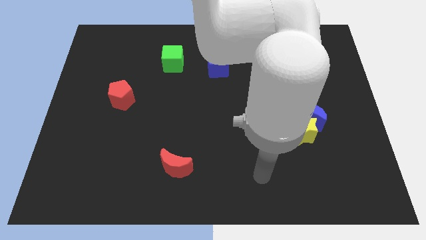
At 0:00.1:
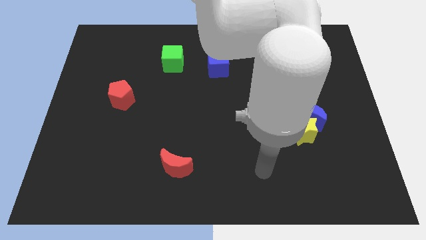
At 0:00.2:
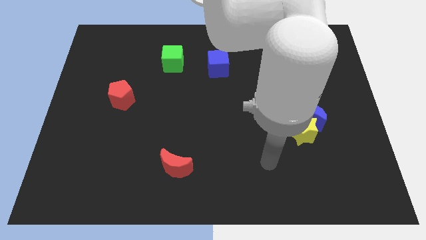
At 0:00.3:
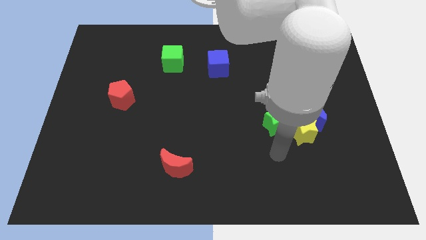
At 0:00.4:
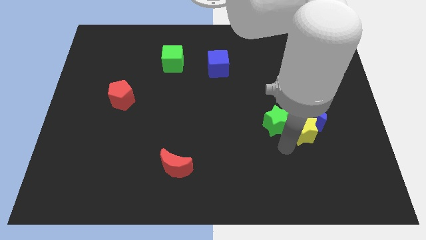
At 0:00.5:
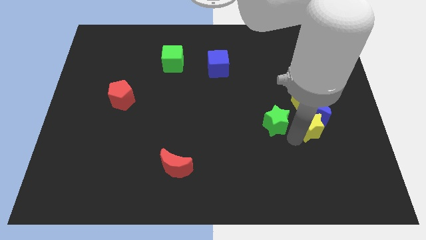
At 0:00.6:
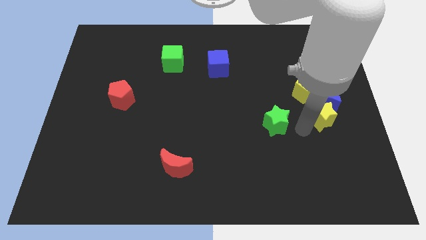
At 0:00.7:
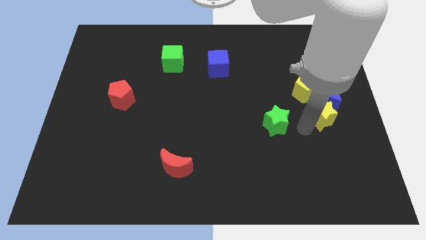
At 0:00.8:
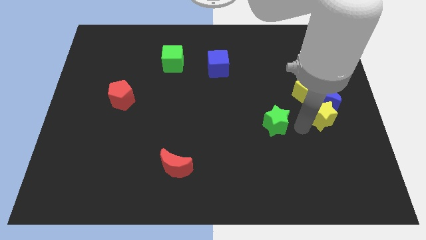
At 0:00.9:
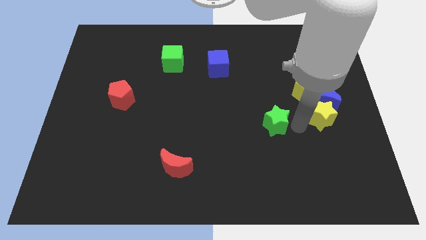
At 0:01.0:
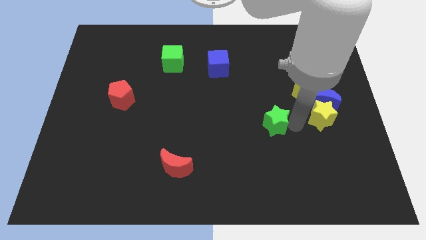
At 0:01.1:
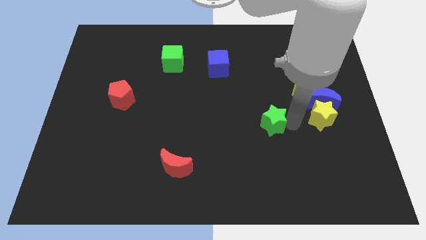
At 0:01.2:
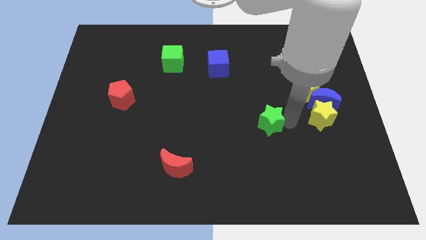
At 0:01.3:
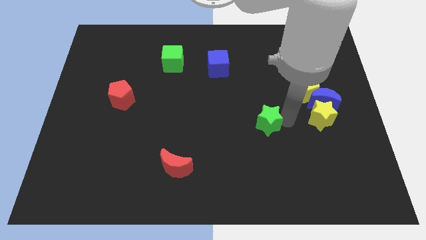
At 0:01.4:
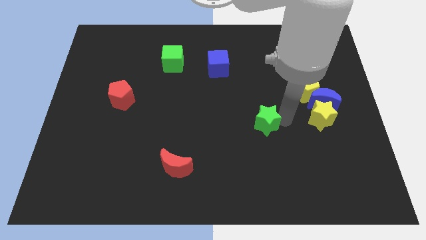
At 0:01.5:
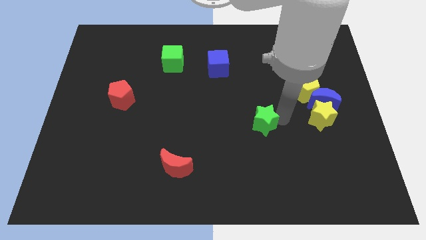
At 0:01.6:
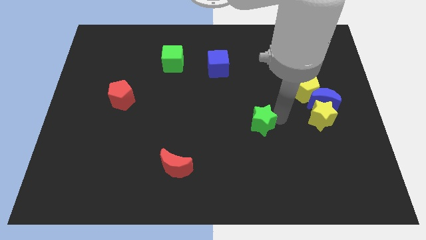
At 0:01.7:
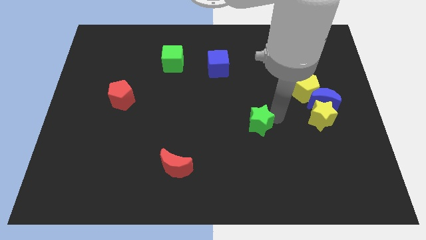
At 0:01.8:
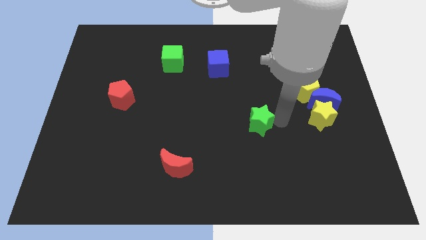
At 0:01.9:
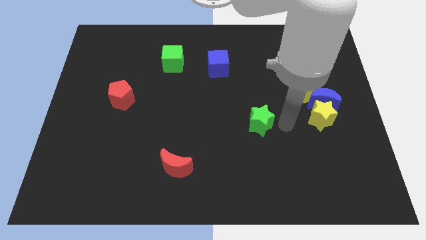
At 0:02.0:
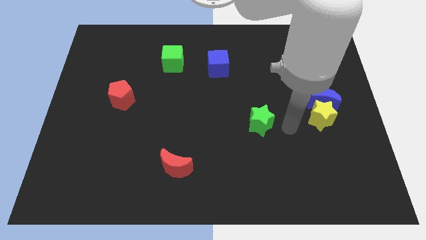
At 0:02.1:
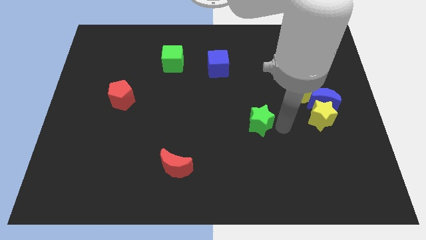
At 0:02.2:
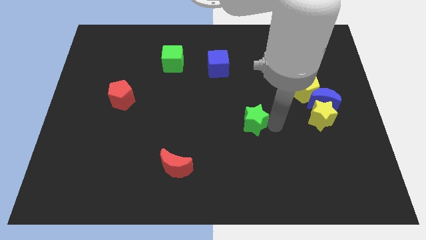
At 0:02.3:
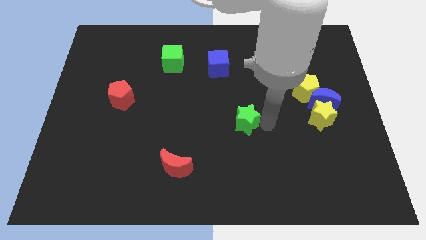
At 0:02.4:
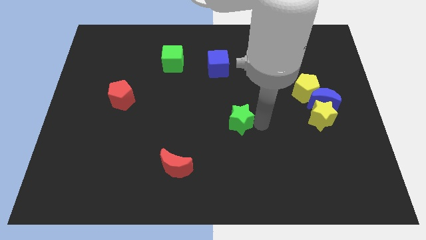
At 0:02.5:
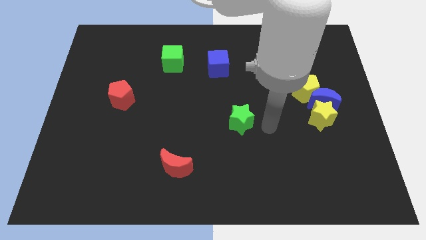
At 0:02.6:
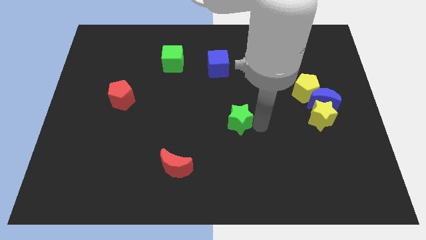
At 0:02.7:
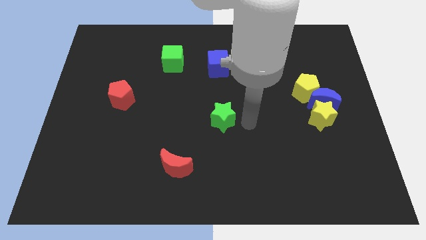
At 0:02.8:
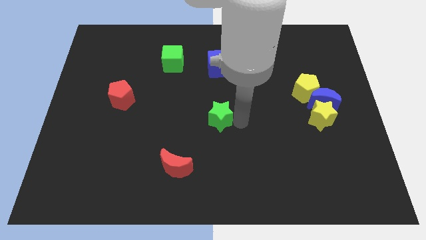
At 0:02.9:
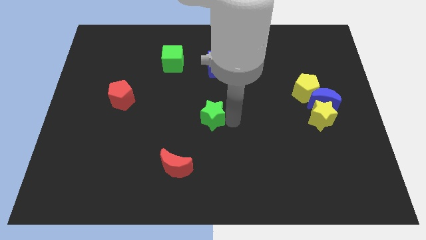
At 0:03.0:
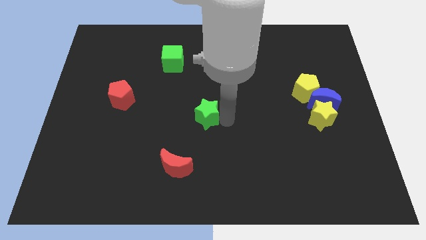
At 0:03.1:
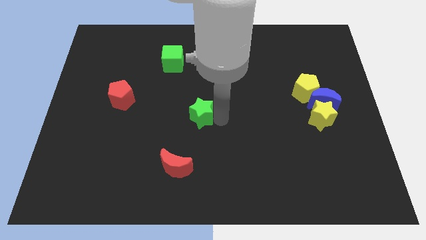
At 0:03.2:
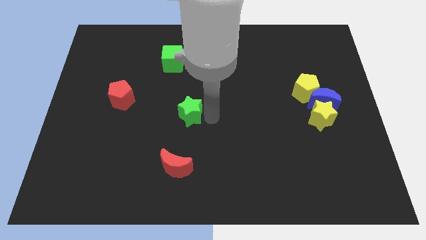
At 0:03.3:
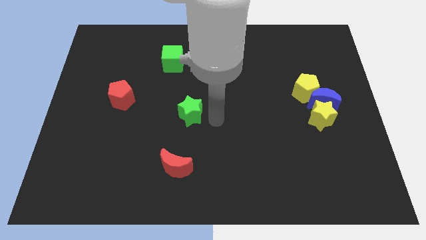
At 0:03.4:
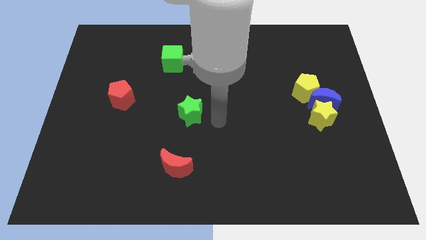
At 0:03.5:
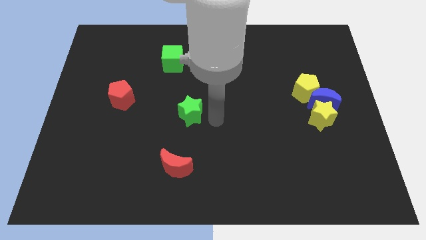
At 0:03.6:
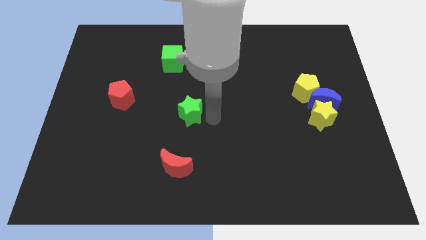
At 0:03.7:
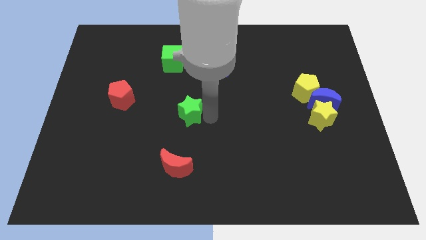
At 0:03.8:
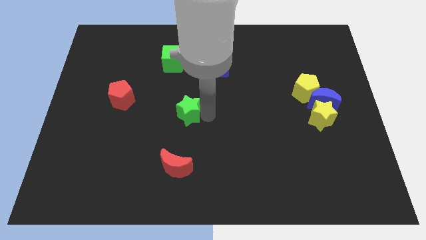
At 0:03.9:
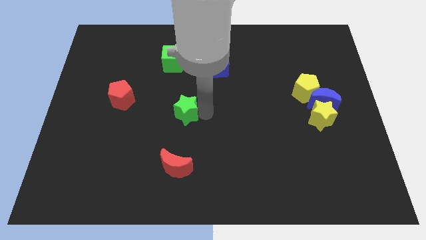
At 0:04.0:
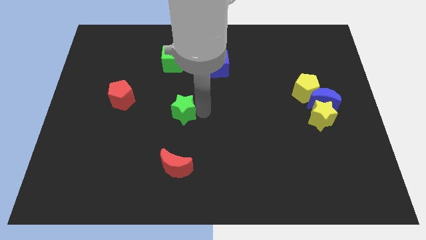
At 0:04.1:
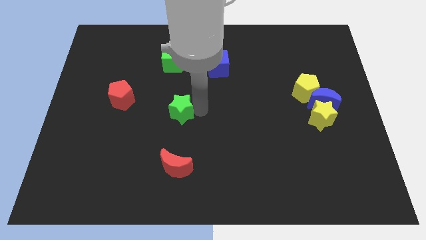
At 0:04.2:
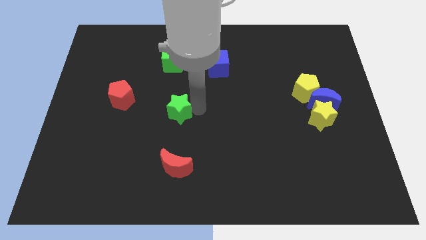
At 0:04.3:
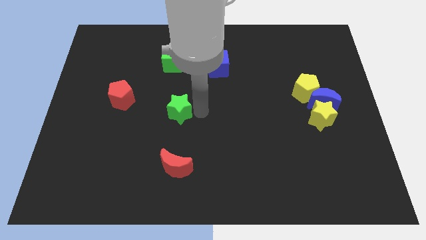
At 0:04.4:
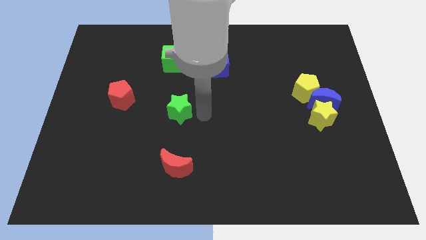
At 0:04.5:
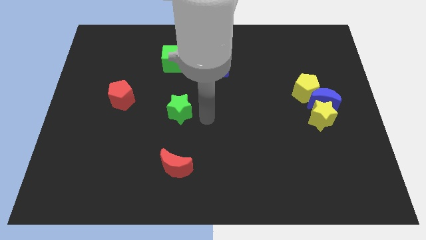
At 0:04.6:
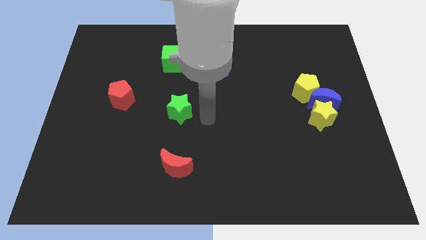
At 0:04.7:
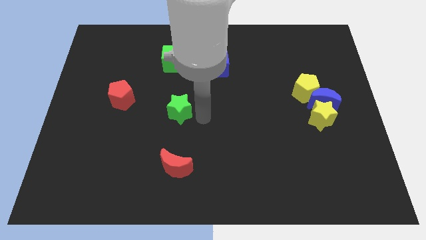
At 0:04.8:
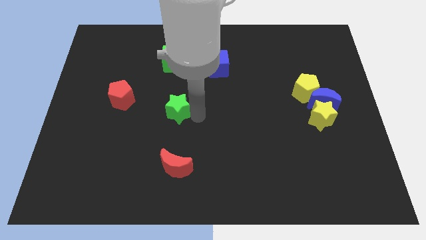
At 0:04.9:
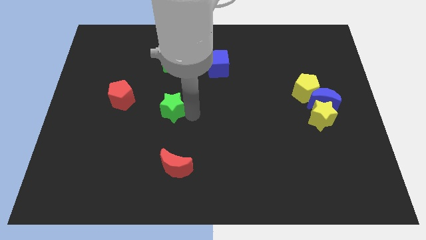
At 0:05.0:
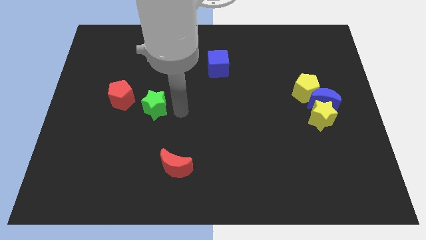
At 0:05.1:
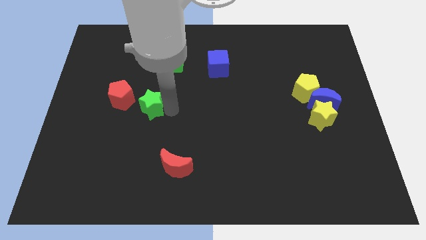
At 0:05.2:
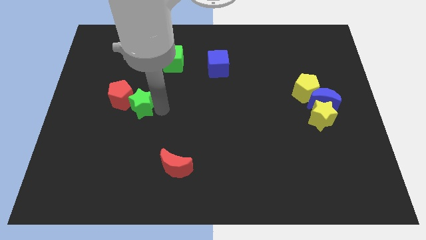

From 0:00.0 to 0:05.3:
put the green star to the red pentagon

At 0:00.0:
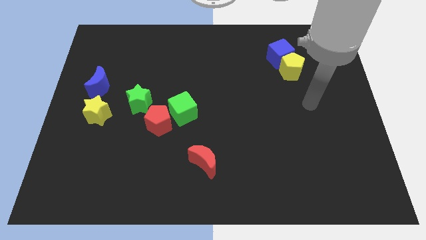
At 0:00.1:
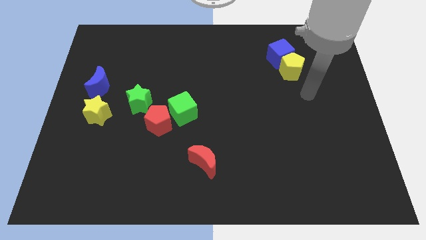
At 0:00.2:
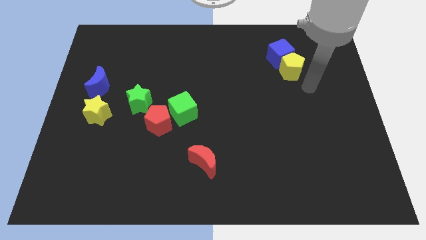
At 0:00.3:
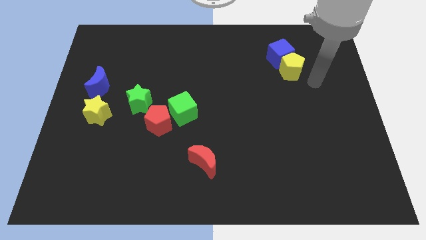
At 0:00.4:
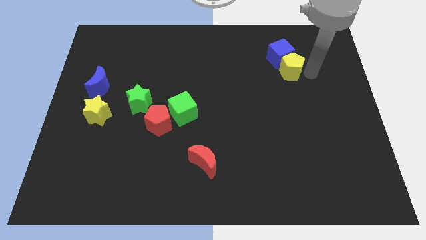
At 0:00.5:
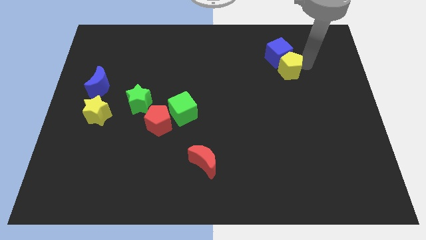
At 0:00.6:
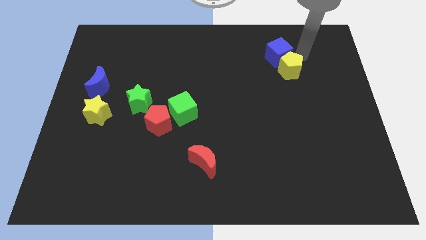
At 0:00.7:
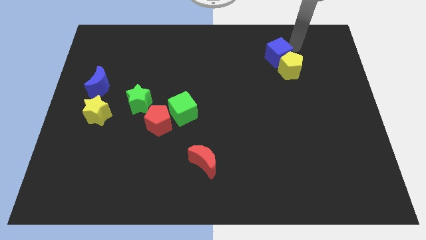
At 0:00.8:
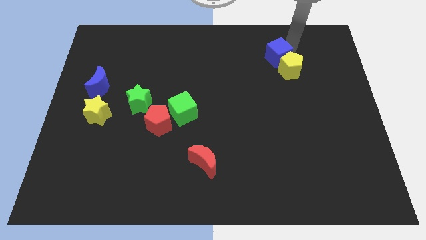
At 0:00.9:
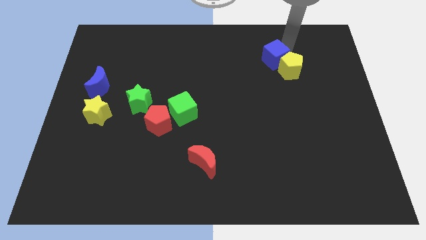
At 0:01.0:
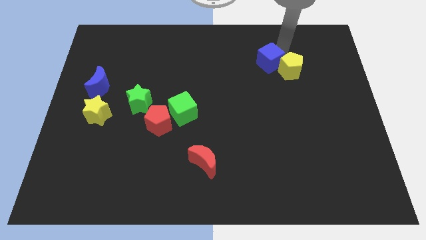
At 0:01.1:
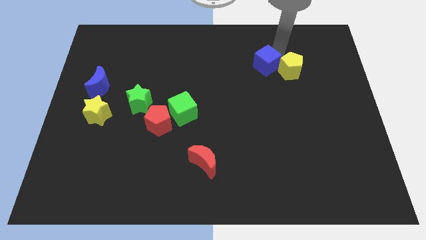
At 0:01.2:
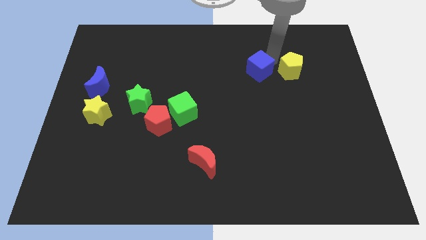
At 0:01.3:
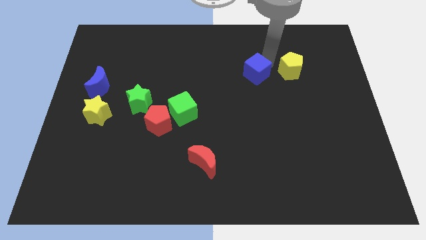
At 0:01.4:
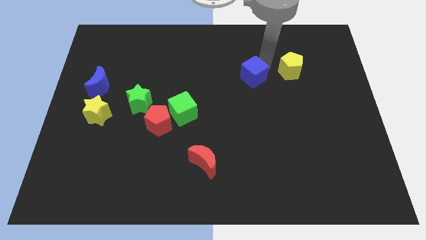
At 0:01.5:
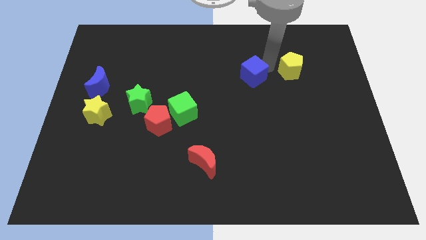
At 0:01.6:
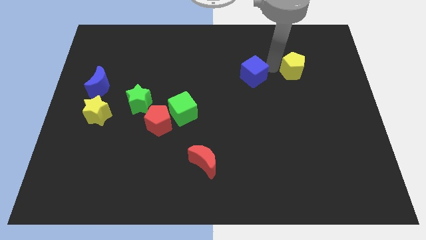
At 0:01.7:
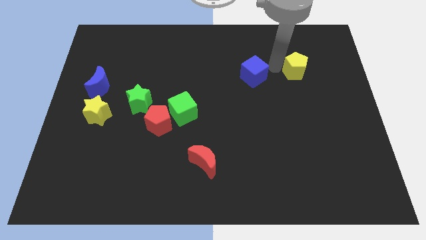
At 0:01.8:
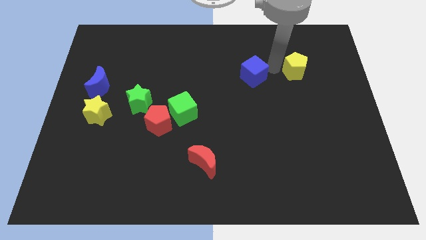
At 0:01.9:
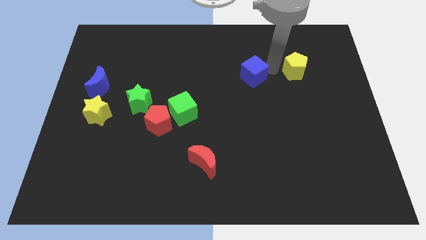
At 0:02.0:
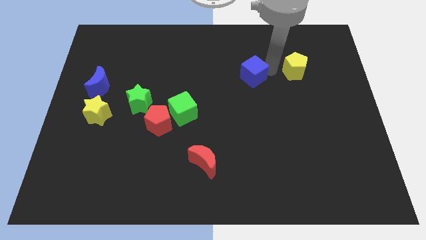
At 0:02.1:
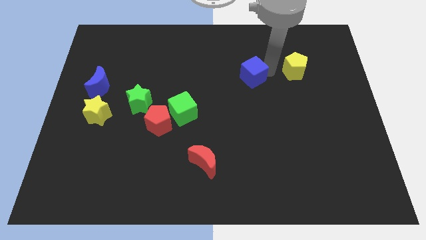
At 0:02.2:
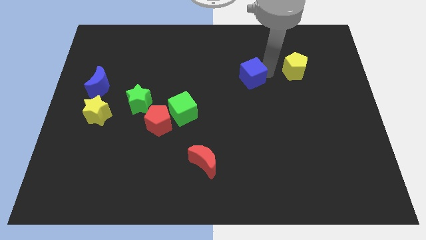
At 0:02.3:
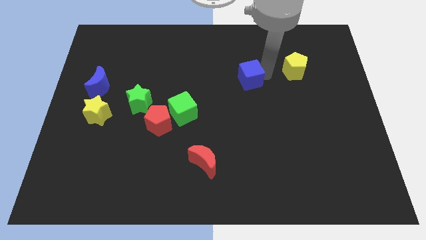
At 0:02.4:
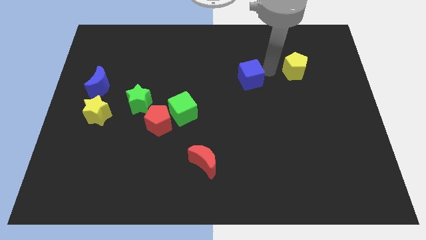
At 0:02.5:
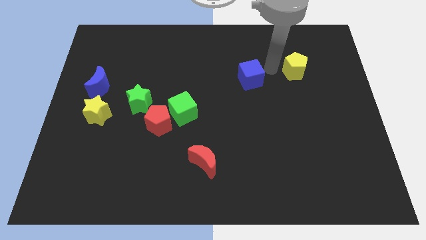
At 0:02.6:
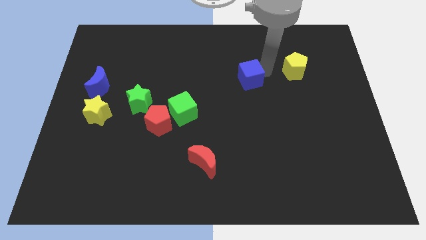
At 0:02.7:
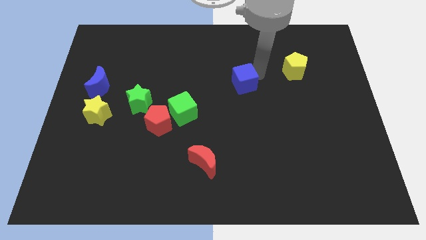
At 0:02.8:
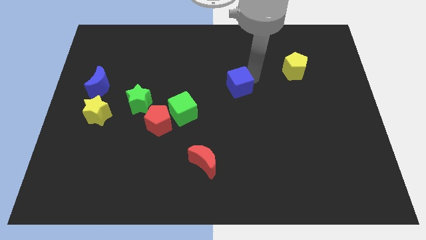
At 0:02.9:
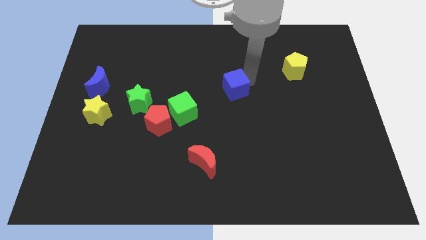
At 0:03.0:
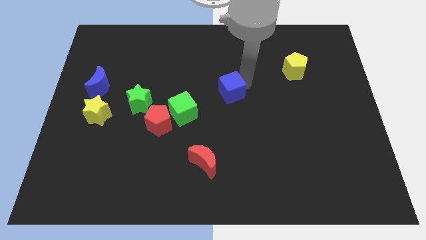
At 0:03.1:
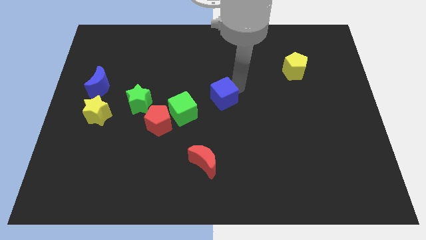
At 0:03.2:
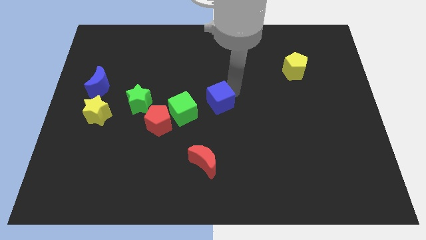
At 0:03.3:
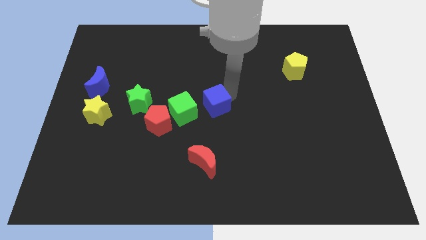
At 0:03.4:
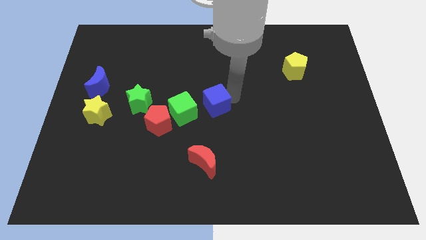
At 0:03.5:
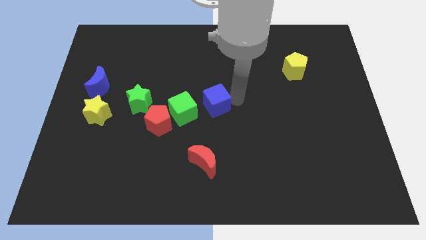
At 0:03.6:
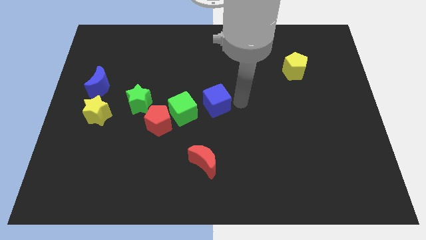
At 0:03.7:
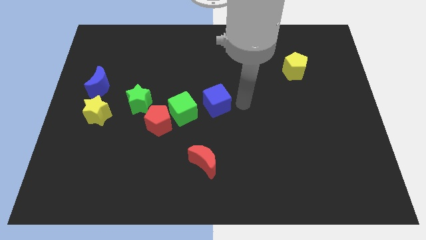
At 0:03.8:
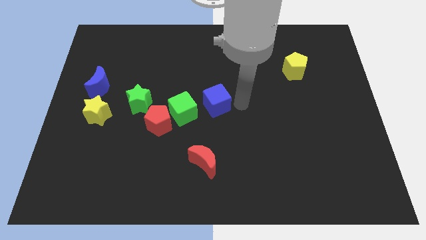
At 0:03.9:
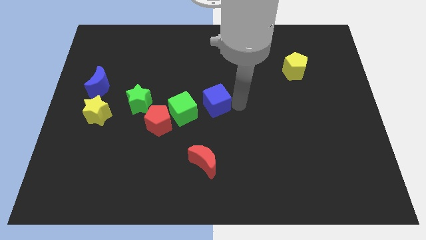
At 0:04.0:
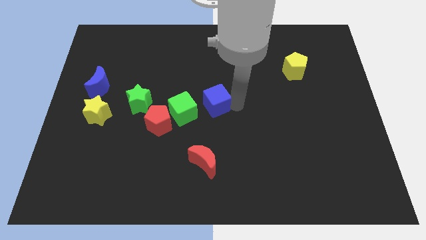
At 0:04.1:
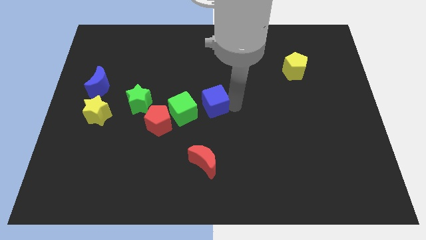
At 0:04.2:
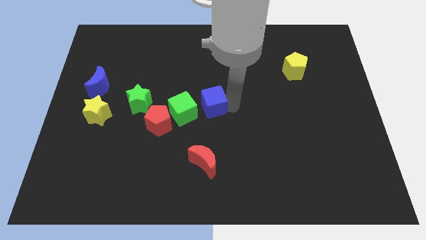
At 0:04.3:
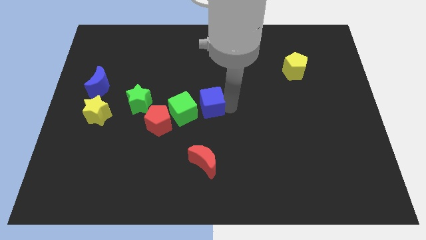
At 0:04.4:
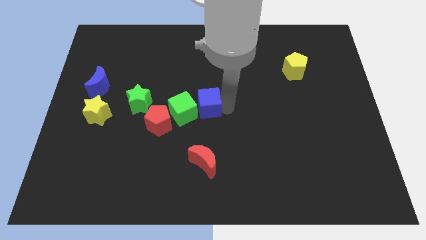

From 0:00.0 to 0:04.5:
put the blue cube next to the green cube
